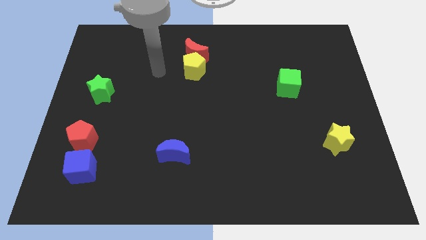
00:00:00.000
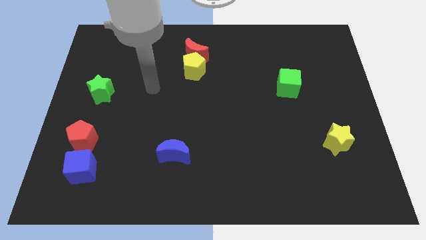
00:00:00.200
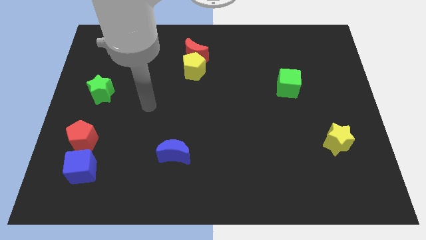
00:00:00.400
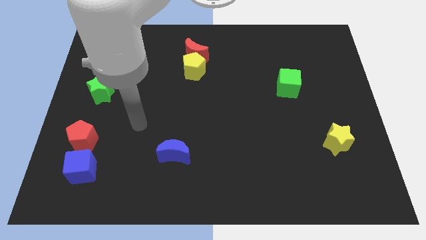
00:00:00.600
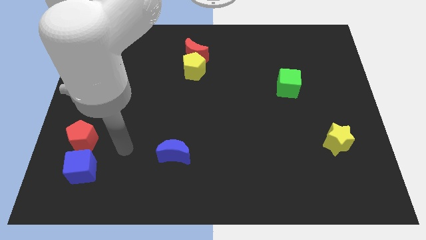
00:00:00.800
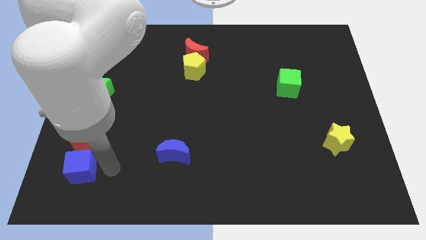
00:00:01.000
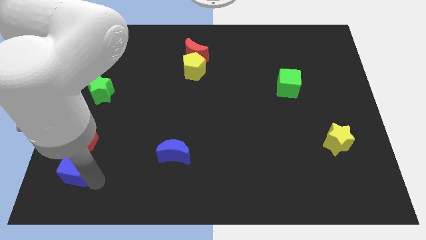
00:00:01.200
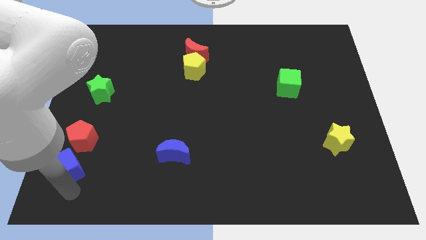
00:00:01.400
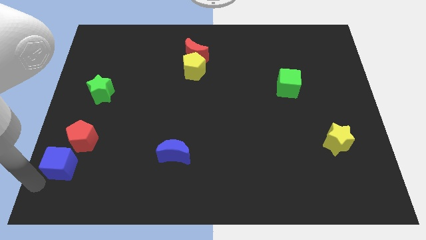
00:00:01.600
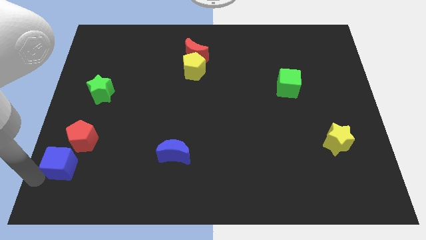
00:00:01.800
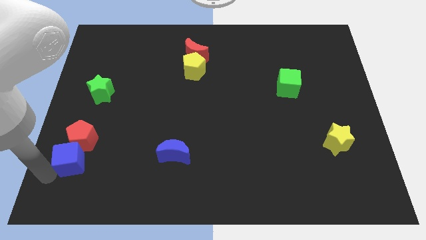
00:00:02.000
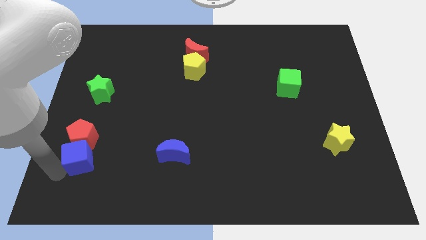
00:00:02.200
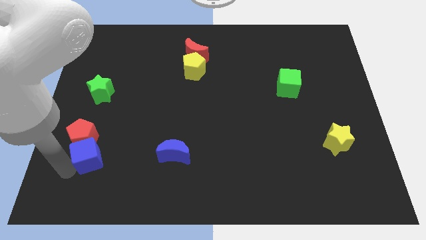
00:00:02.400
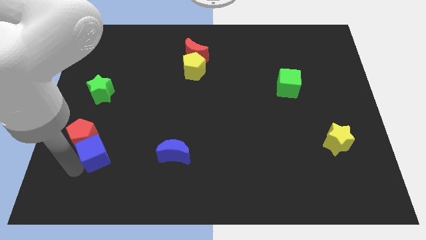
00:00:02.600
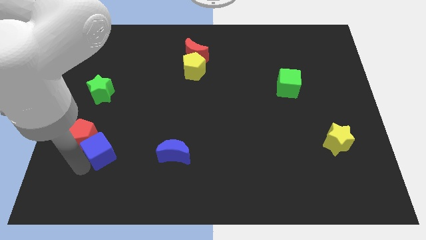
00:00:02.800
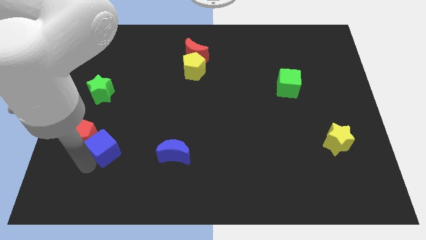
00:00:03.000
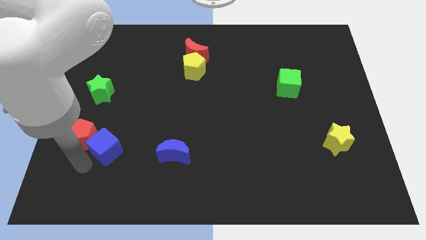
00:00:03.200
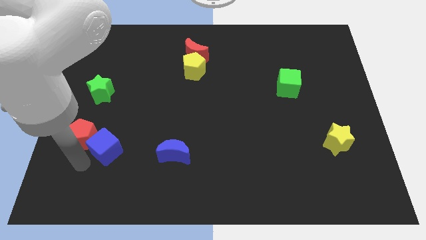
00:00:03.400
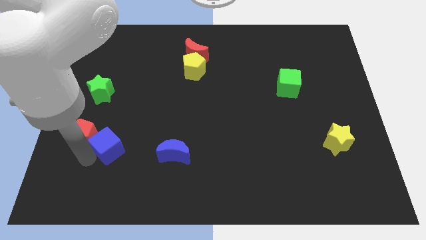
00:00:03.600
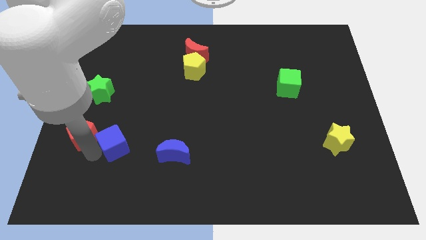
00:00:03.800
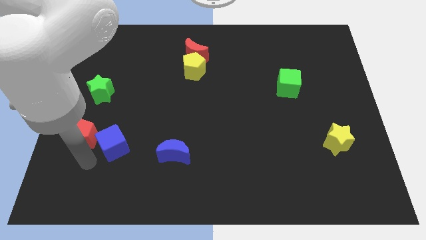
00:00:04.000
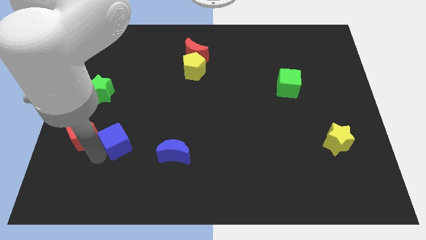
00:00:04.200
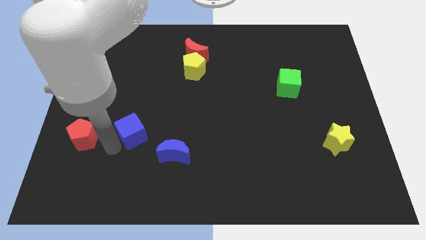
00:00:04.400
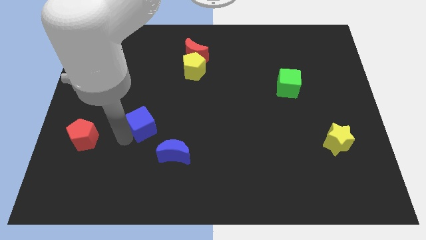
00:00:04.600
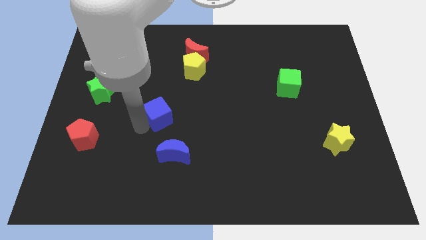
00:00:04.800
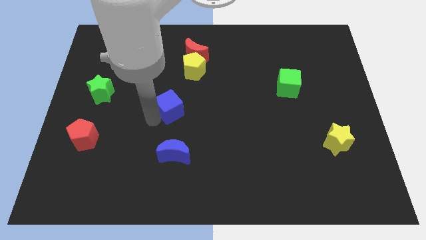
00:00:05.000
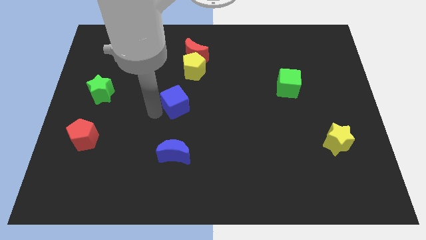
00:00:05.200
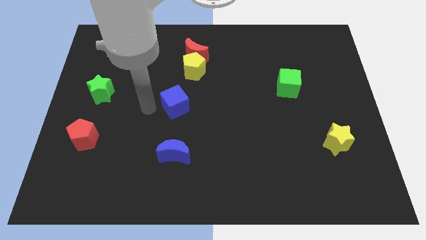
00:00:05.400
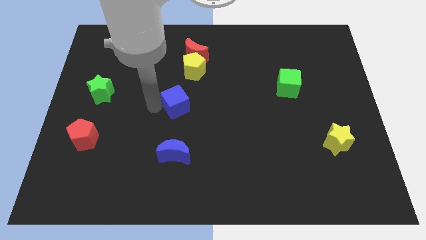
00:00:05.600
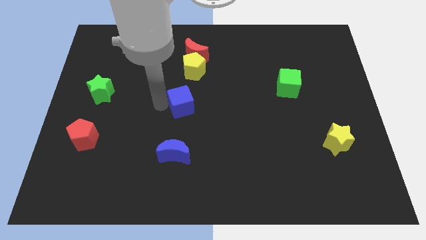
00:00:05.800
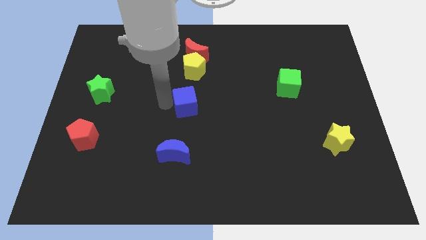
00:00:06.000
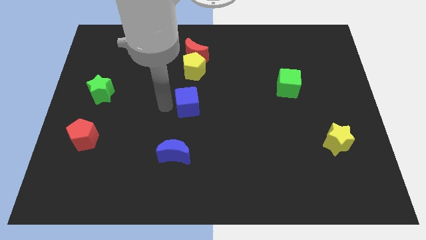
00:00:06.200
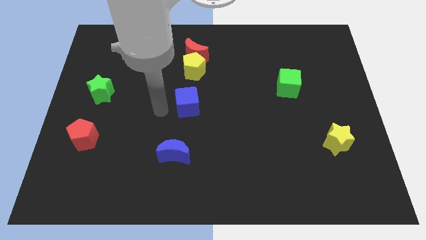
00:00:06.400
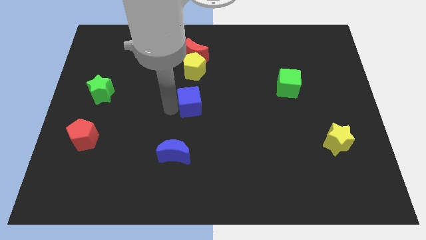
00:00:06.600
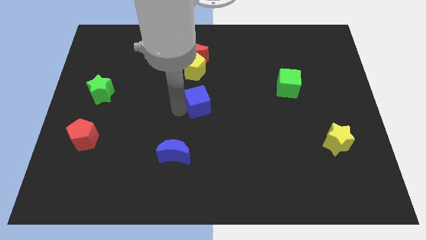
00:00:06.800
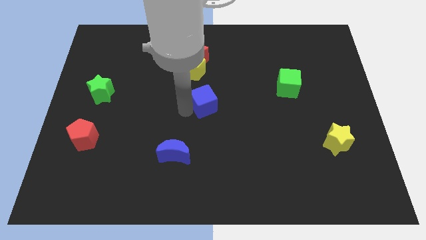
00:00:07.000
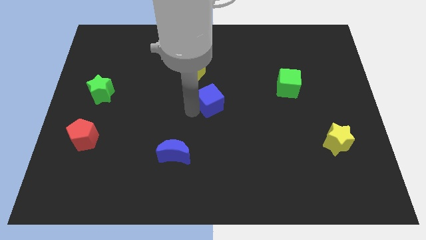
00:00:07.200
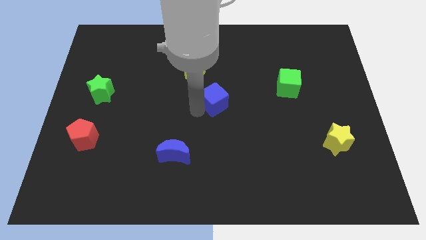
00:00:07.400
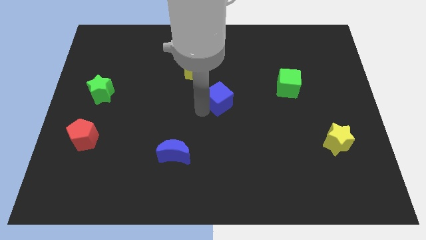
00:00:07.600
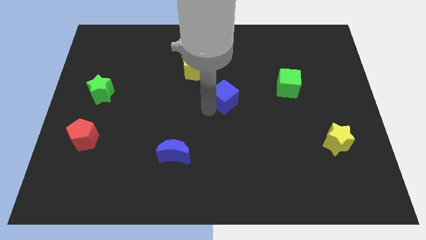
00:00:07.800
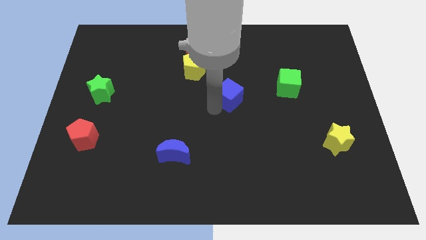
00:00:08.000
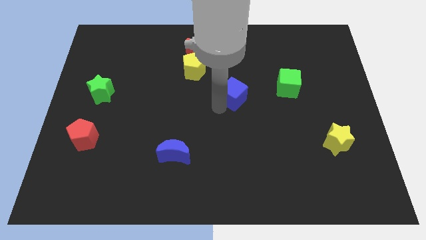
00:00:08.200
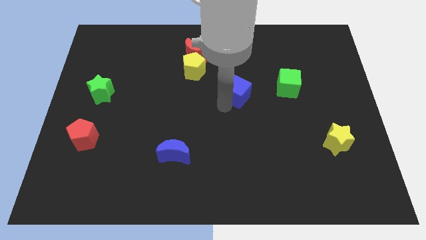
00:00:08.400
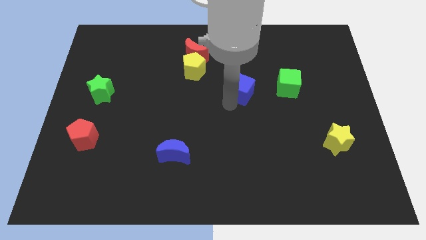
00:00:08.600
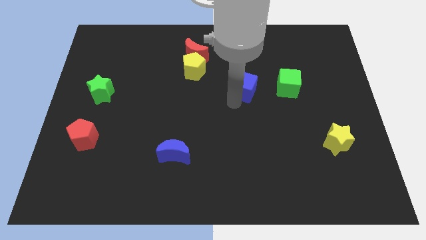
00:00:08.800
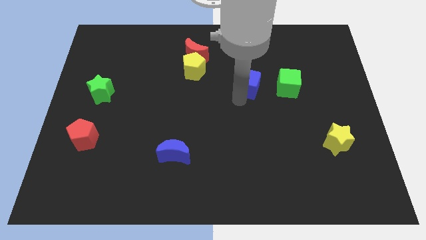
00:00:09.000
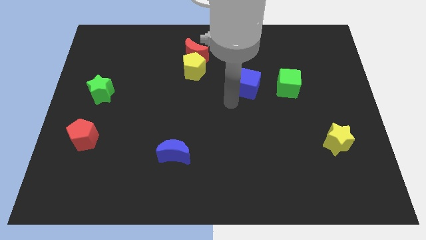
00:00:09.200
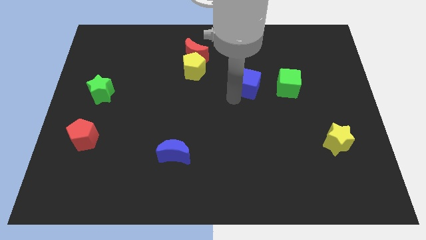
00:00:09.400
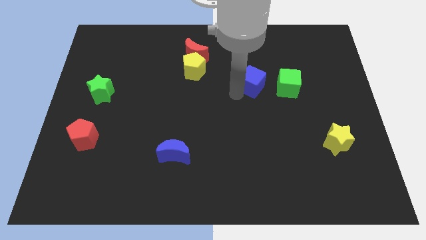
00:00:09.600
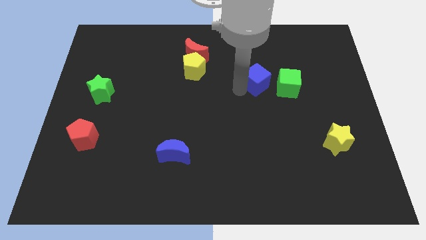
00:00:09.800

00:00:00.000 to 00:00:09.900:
push the blue cube to the top left of the green cube

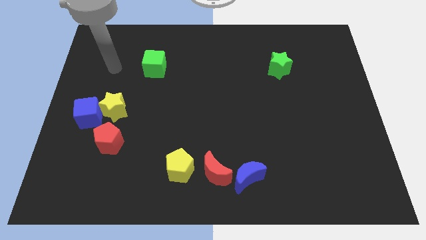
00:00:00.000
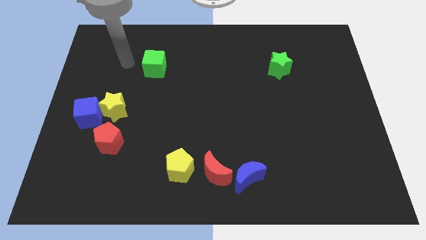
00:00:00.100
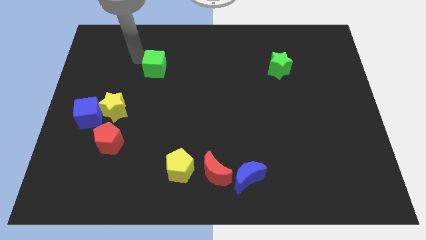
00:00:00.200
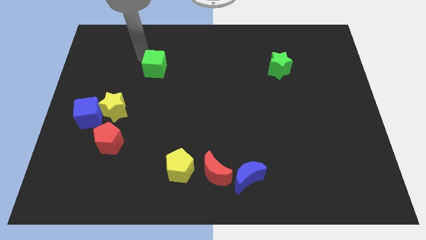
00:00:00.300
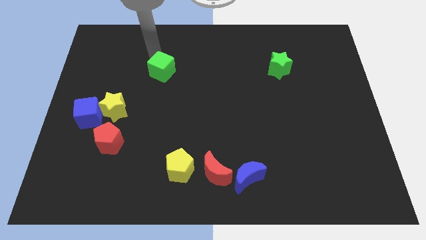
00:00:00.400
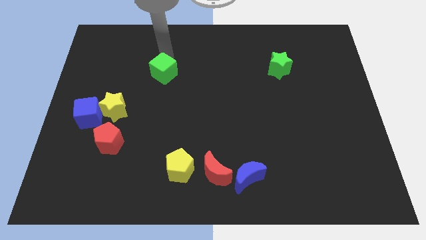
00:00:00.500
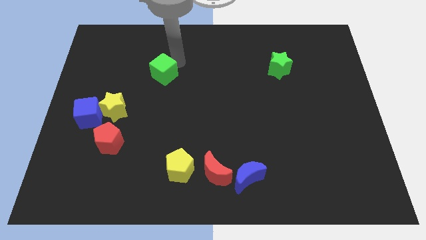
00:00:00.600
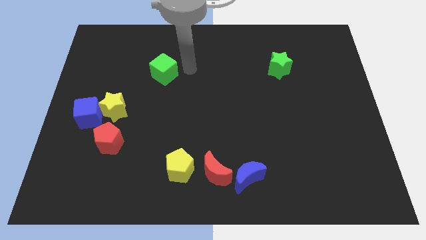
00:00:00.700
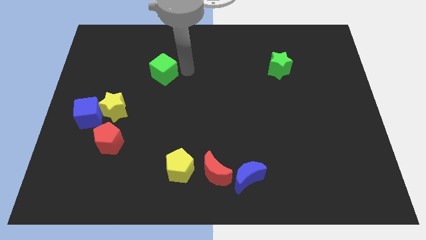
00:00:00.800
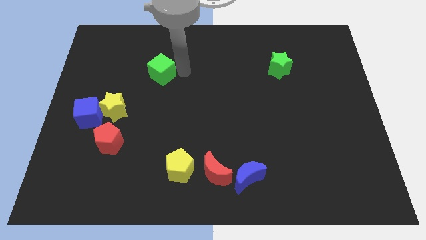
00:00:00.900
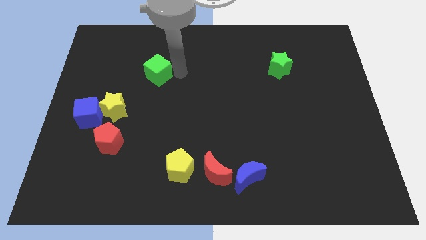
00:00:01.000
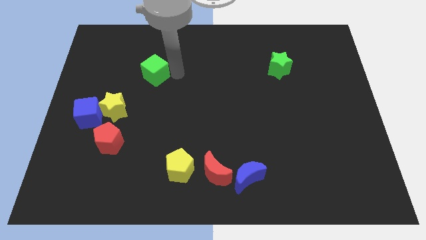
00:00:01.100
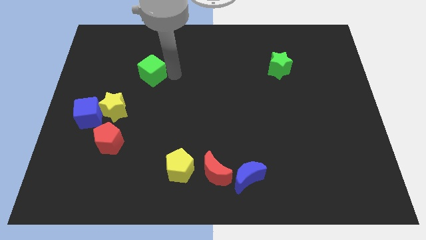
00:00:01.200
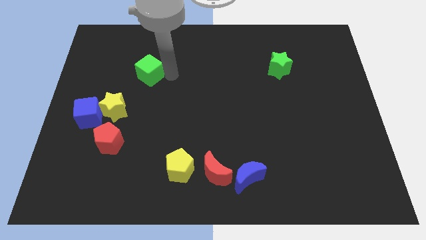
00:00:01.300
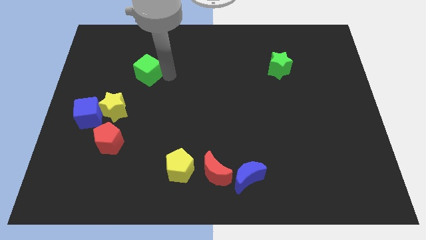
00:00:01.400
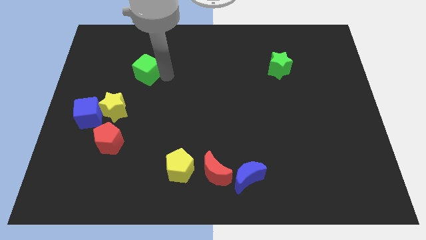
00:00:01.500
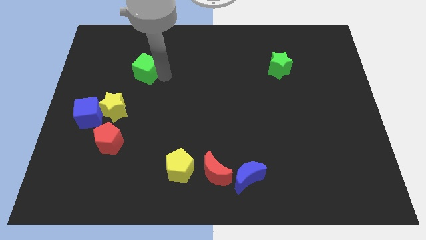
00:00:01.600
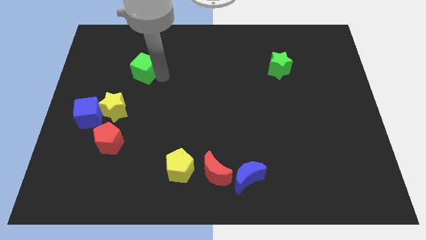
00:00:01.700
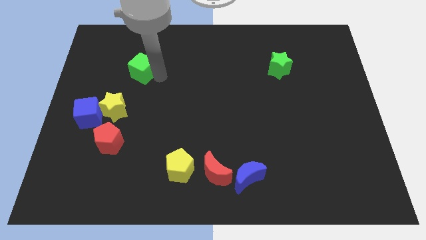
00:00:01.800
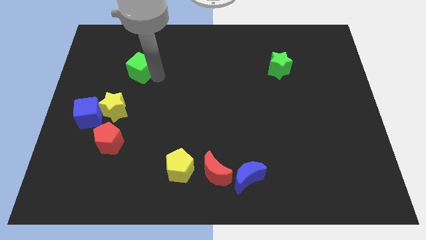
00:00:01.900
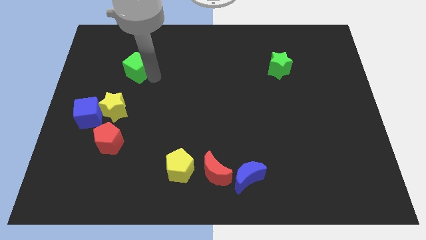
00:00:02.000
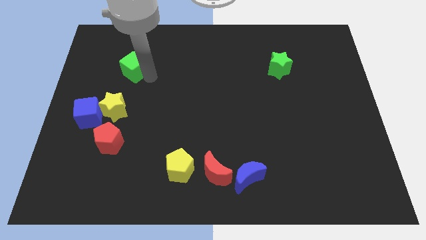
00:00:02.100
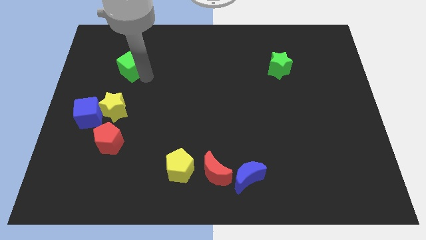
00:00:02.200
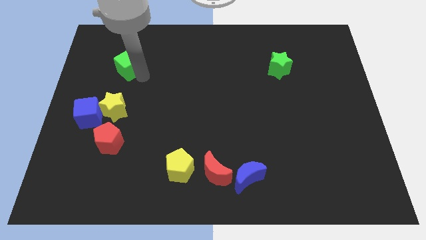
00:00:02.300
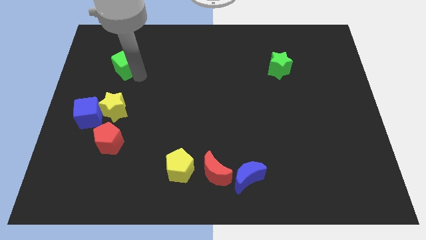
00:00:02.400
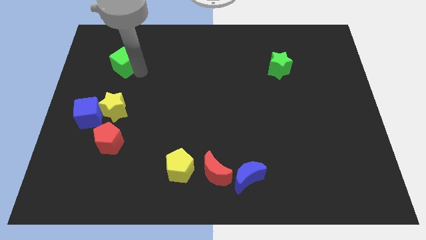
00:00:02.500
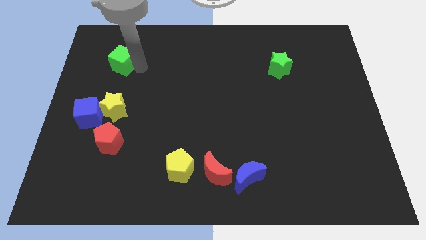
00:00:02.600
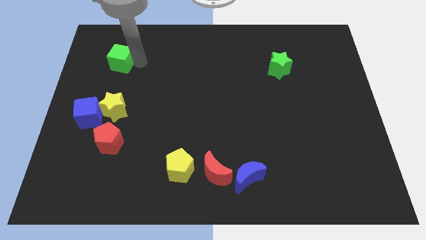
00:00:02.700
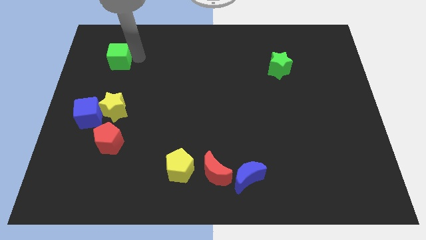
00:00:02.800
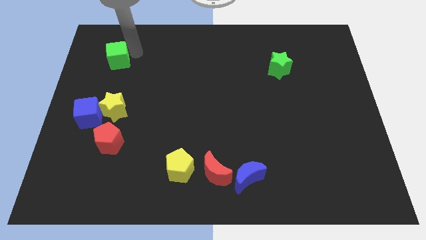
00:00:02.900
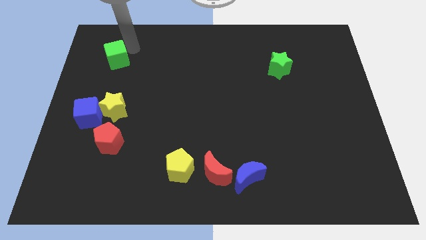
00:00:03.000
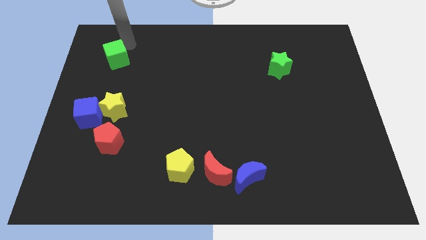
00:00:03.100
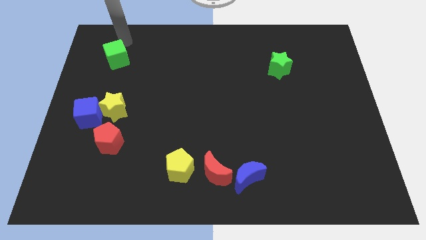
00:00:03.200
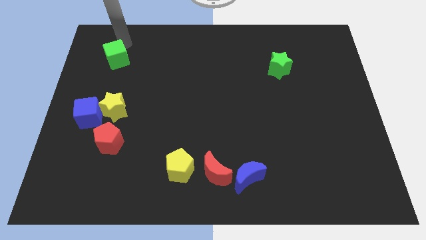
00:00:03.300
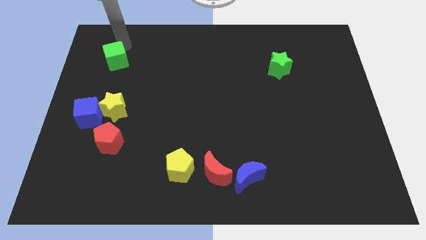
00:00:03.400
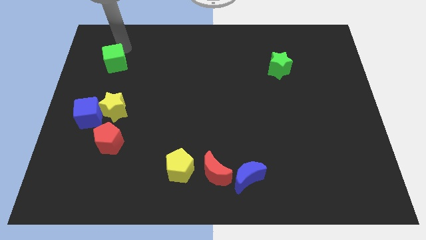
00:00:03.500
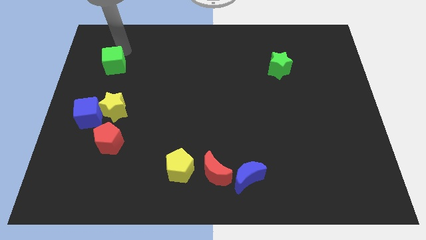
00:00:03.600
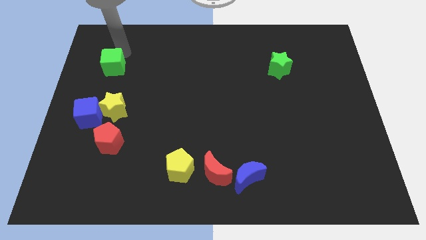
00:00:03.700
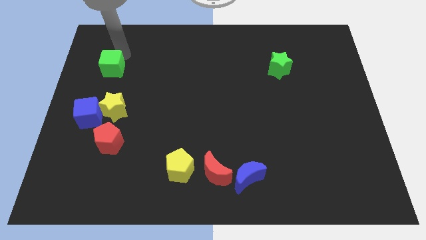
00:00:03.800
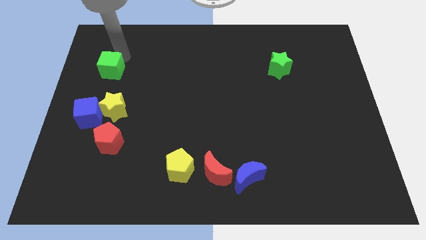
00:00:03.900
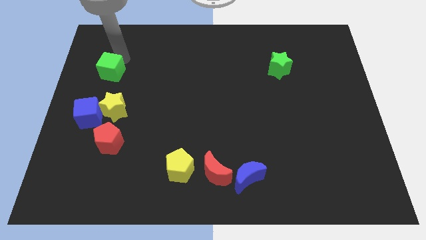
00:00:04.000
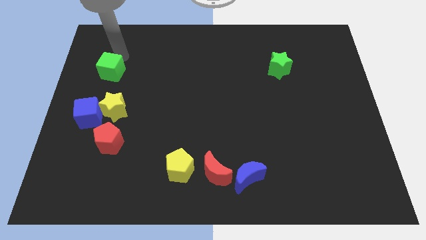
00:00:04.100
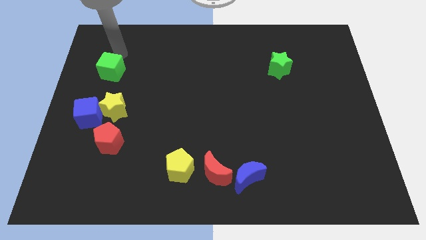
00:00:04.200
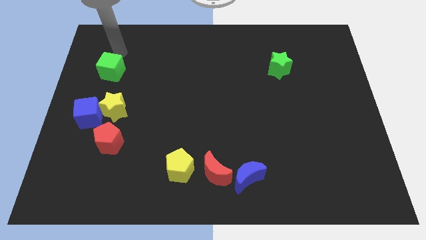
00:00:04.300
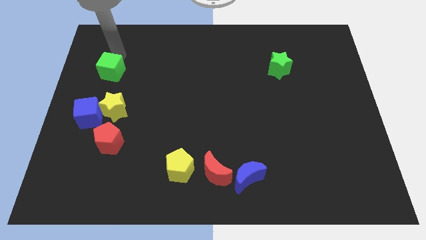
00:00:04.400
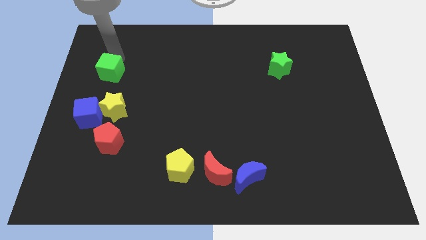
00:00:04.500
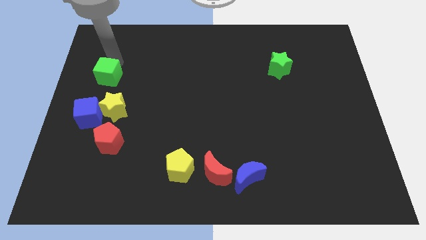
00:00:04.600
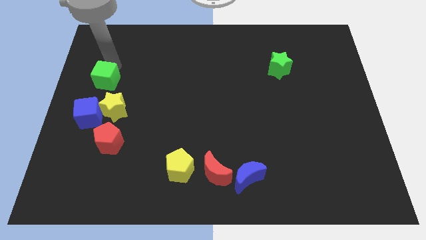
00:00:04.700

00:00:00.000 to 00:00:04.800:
slide the green cube to the top left side of the yellow star
